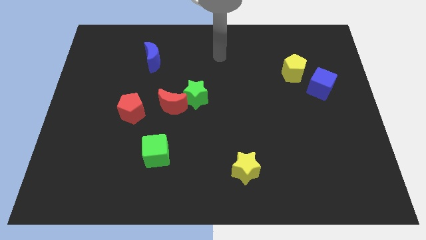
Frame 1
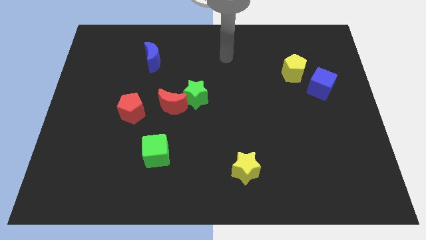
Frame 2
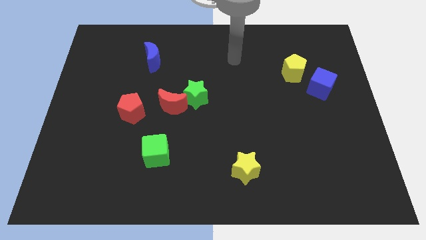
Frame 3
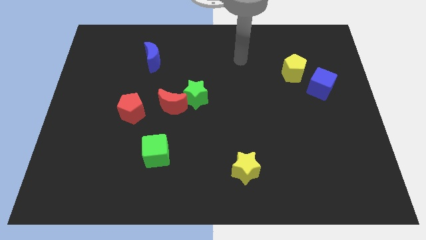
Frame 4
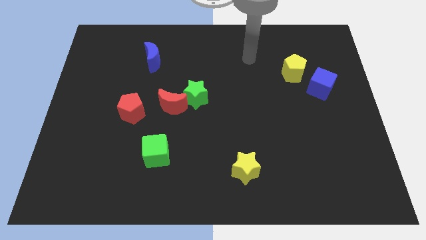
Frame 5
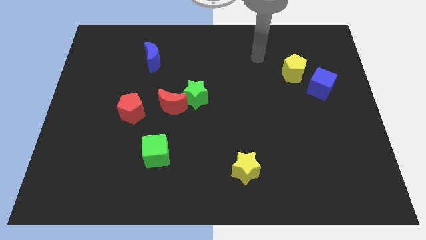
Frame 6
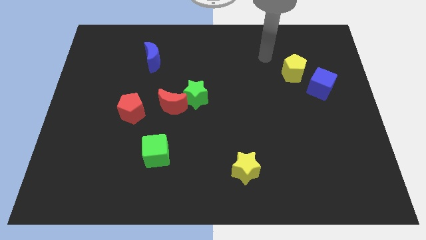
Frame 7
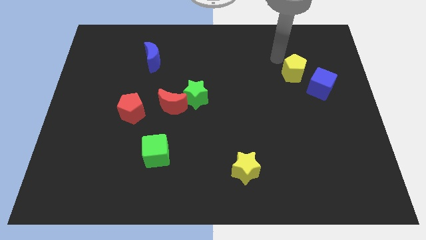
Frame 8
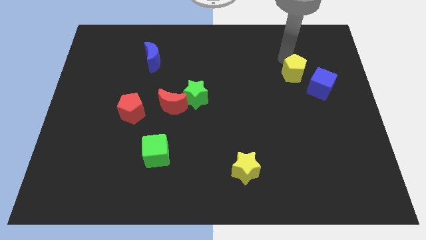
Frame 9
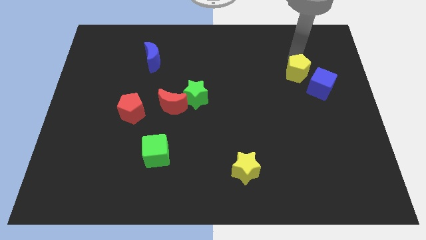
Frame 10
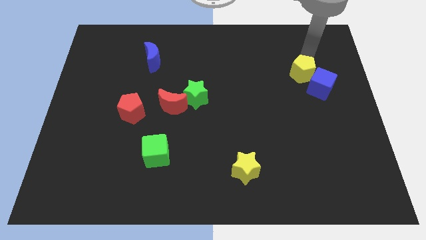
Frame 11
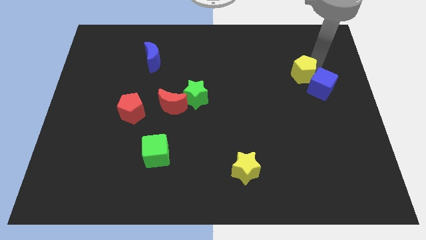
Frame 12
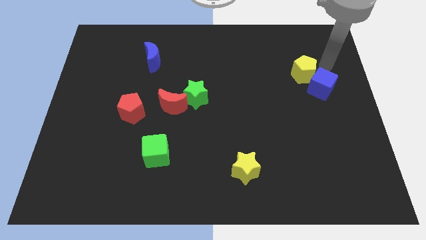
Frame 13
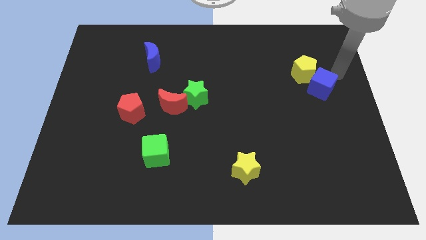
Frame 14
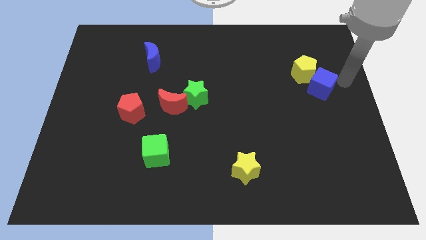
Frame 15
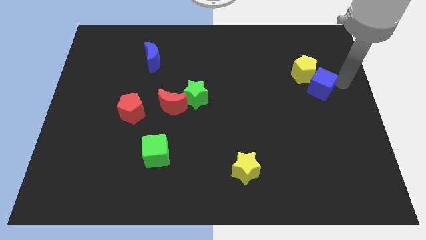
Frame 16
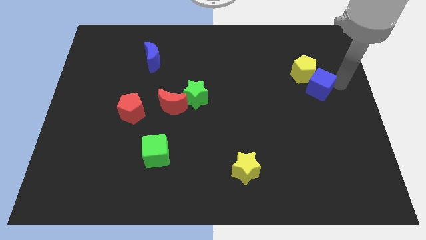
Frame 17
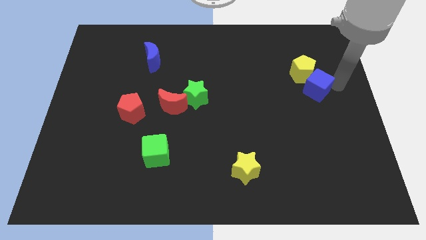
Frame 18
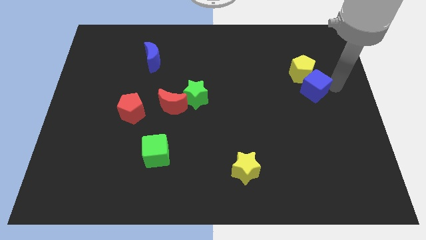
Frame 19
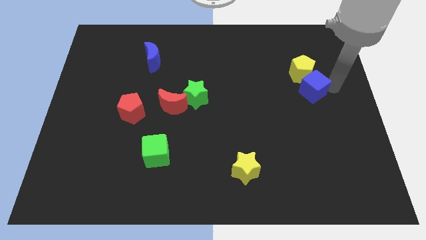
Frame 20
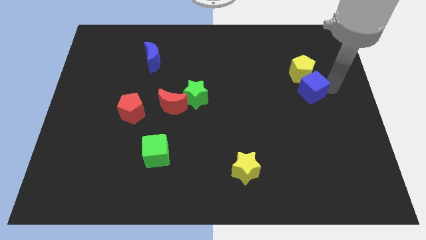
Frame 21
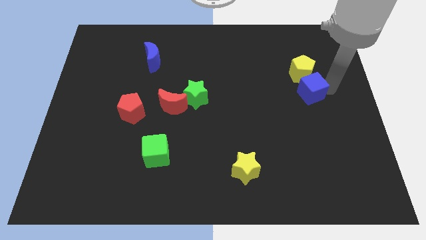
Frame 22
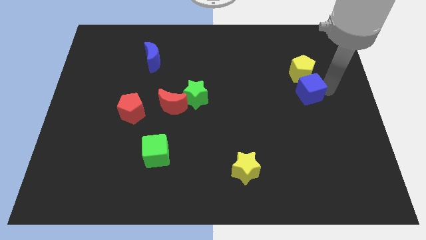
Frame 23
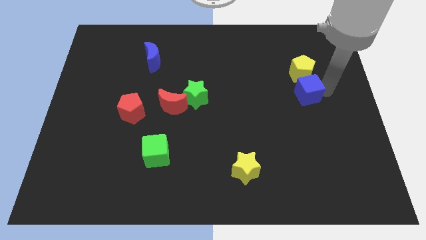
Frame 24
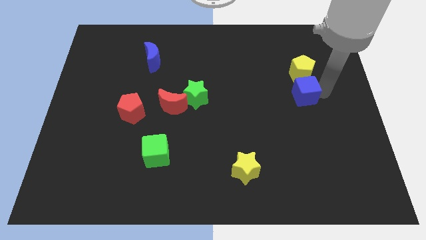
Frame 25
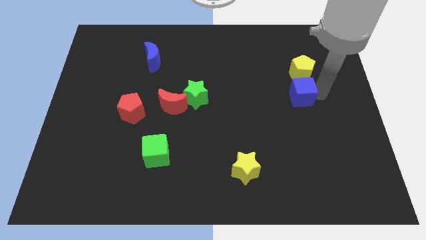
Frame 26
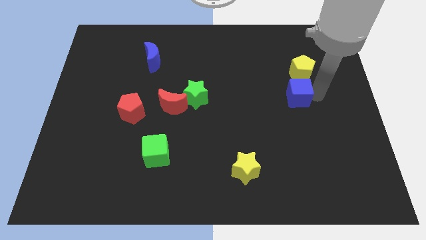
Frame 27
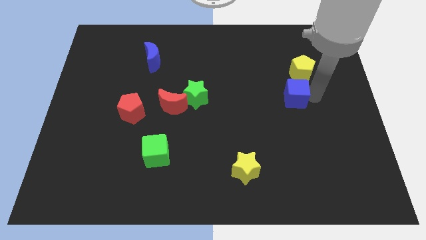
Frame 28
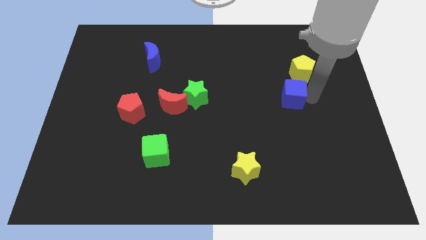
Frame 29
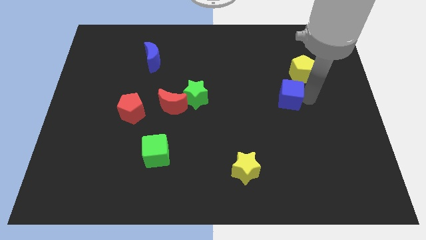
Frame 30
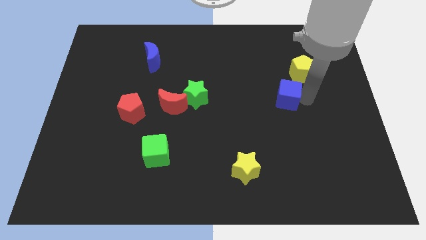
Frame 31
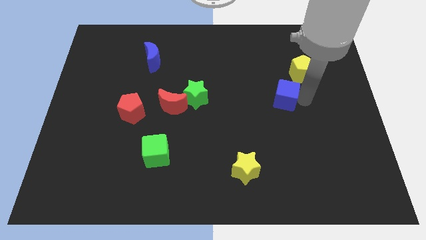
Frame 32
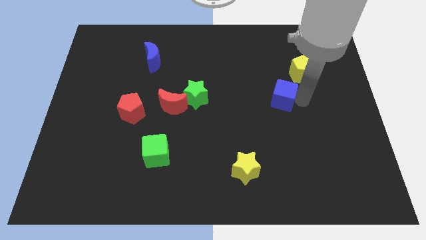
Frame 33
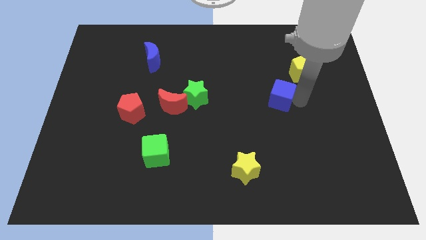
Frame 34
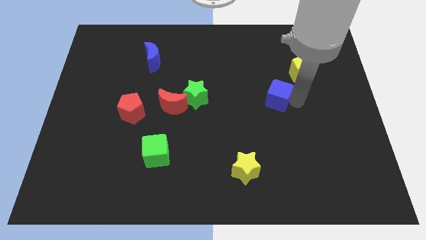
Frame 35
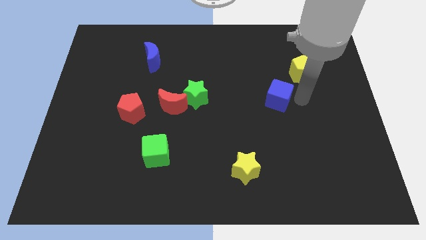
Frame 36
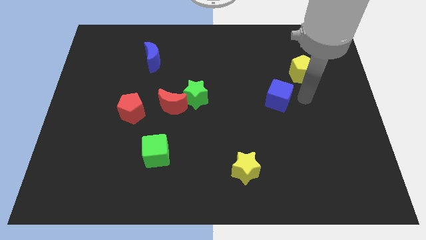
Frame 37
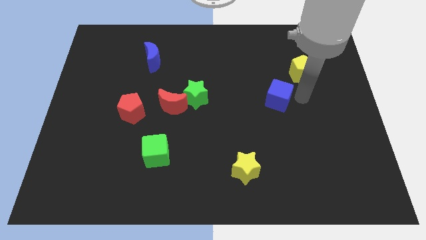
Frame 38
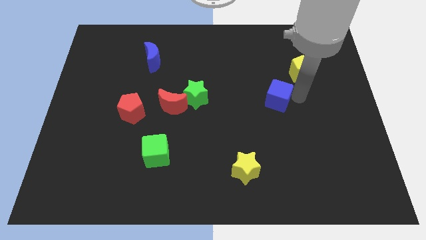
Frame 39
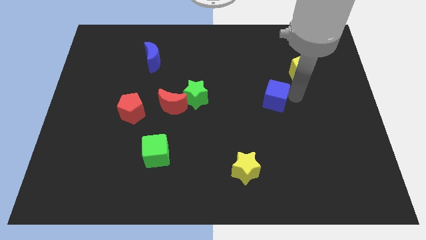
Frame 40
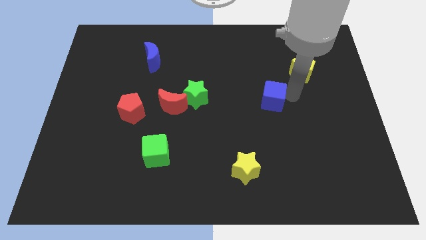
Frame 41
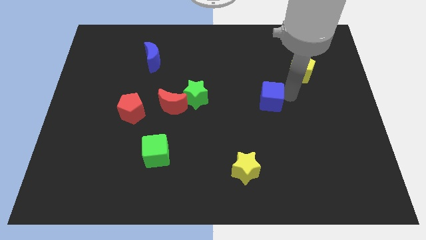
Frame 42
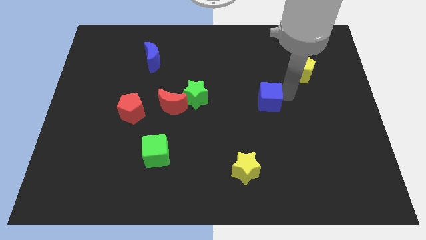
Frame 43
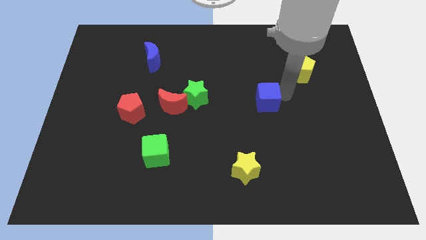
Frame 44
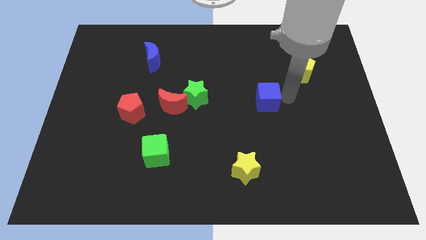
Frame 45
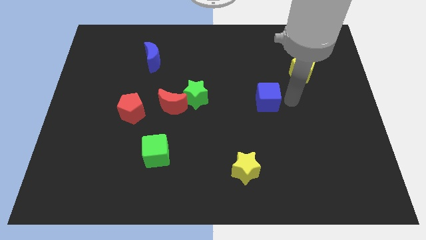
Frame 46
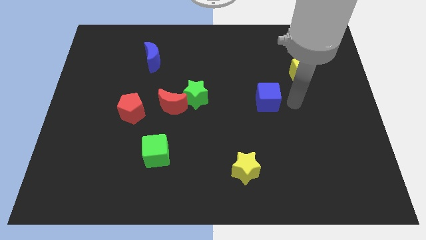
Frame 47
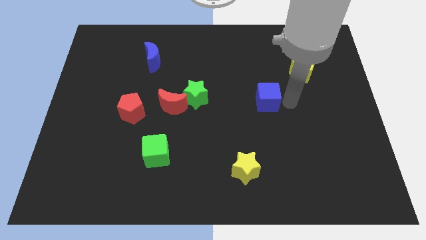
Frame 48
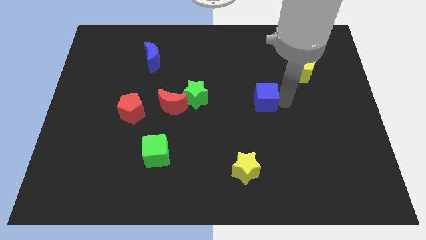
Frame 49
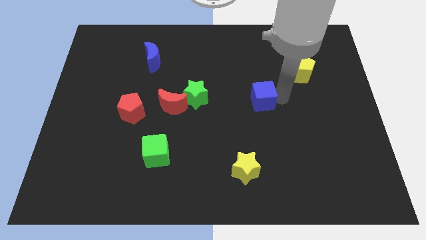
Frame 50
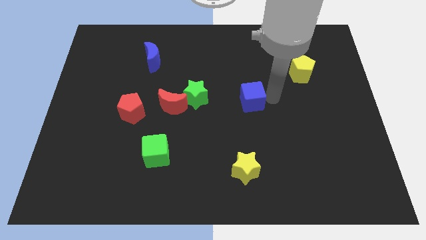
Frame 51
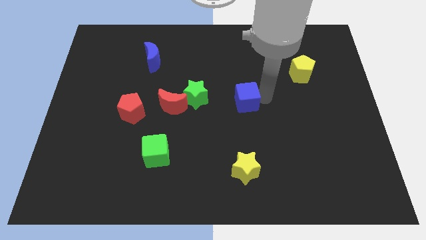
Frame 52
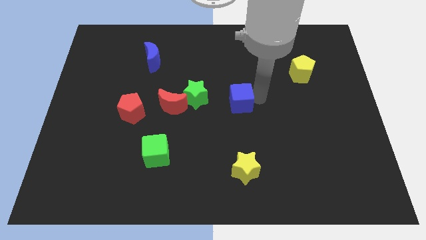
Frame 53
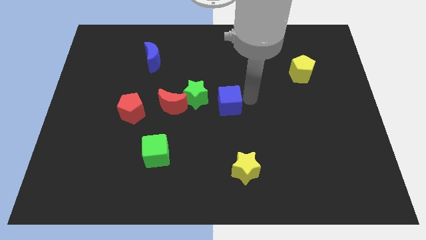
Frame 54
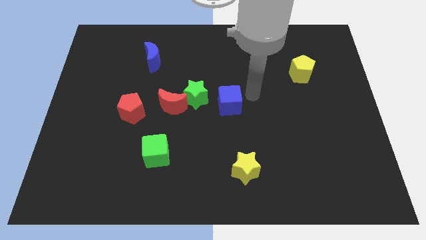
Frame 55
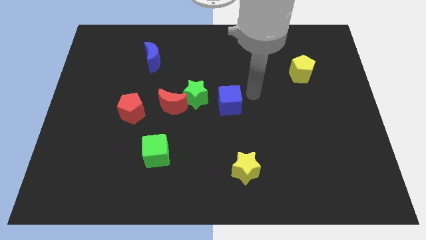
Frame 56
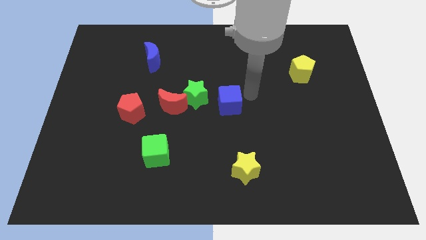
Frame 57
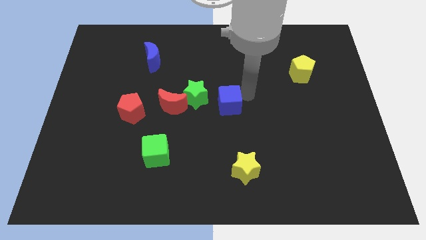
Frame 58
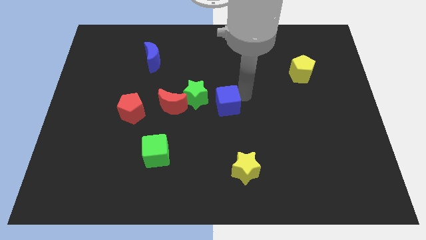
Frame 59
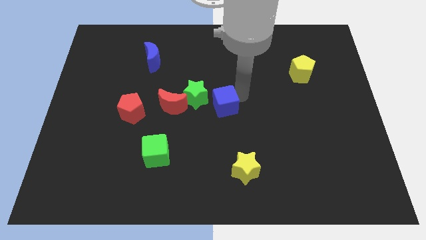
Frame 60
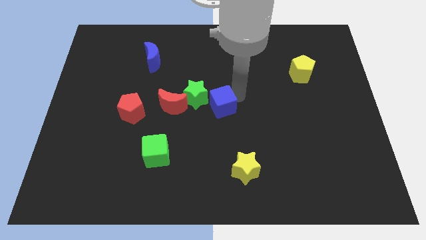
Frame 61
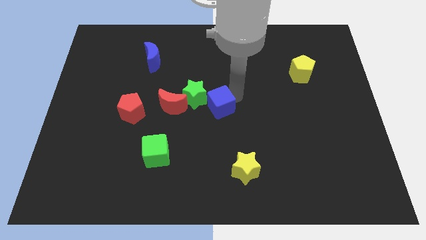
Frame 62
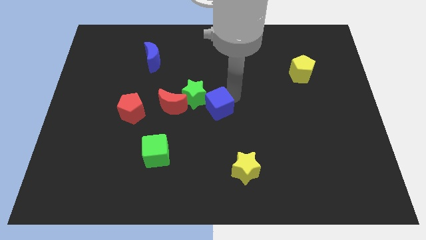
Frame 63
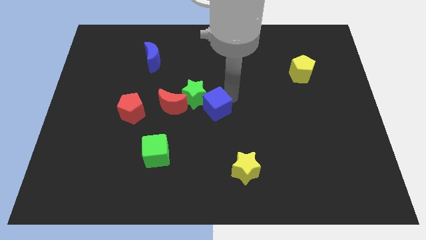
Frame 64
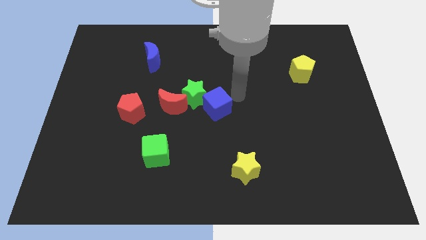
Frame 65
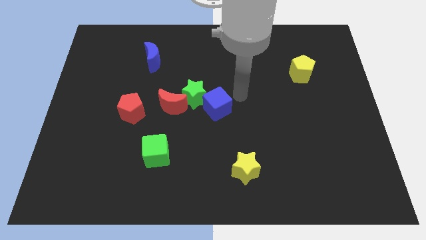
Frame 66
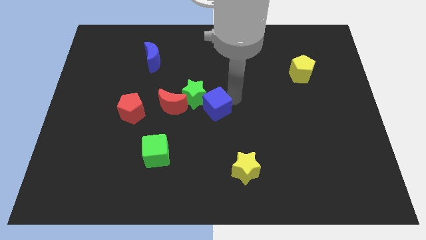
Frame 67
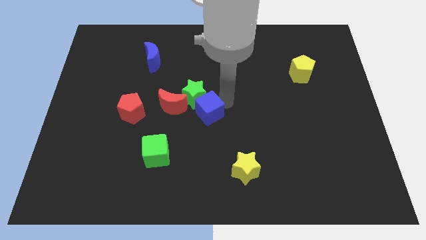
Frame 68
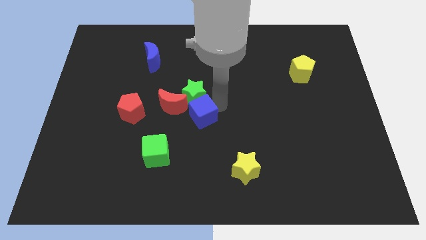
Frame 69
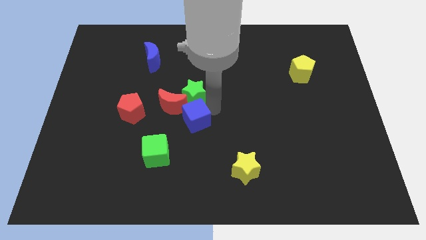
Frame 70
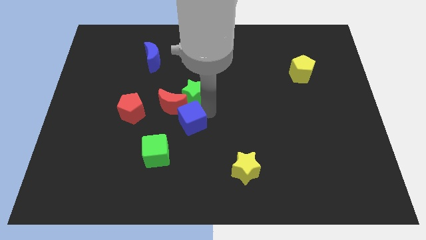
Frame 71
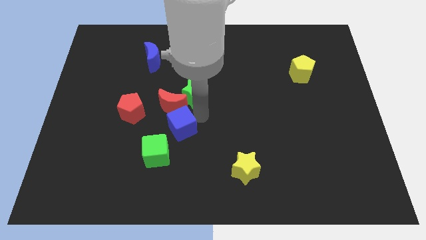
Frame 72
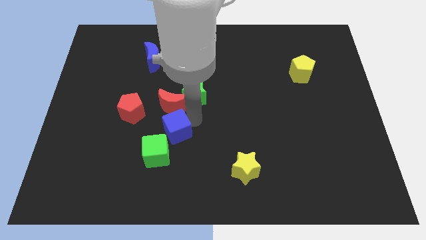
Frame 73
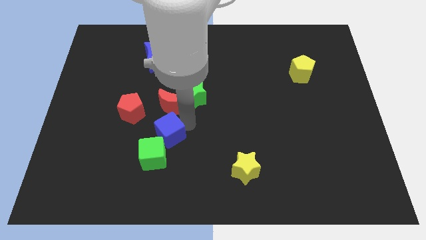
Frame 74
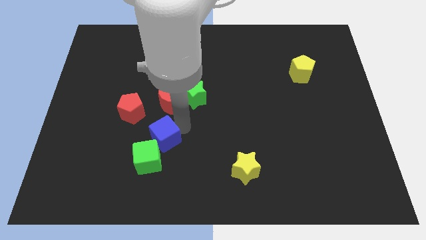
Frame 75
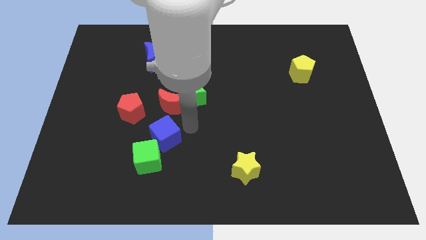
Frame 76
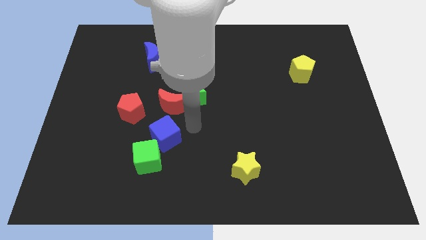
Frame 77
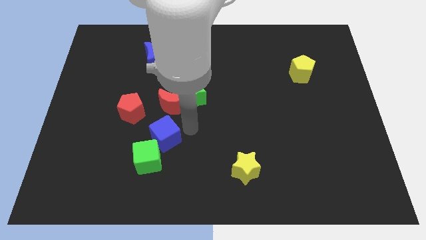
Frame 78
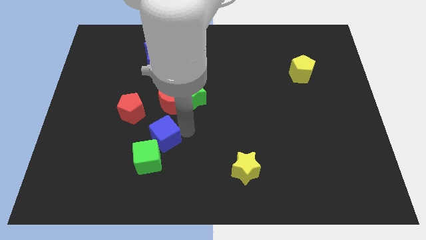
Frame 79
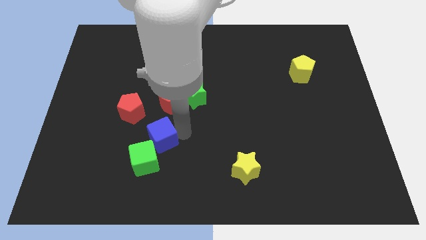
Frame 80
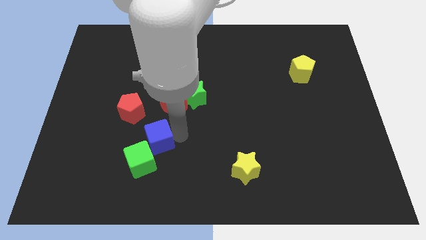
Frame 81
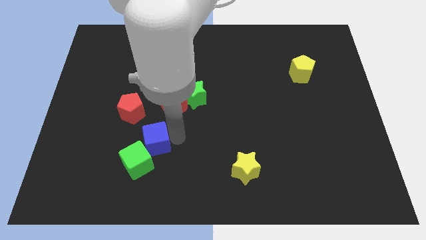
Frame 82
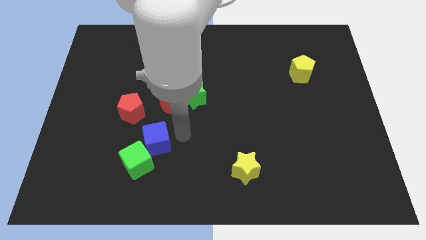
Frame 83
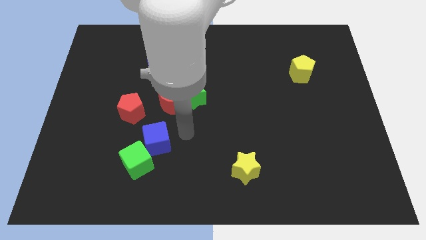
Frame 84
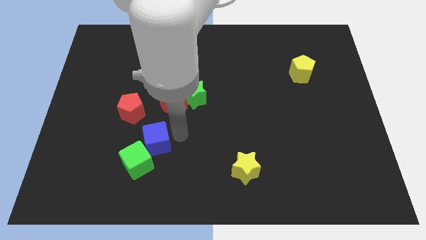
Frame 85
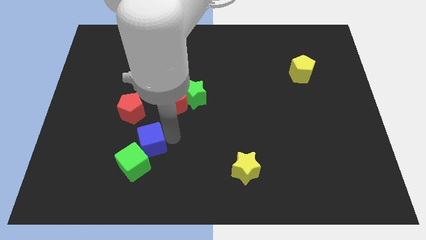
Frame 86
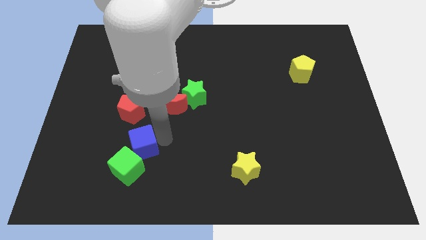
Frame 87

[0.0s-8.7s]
slide the blue cube to the bottom of the red pentagon
